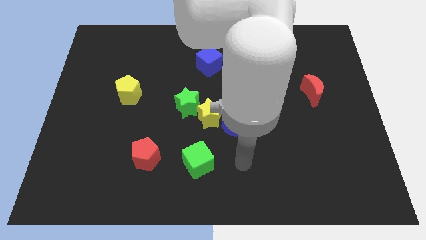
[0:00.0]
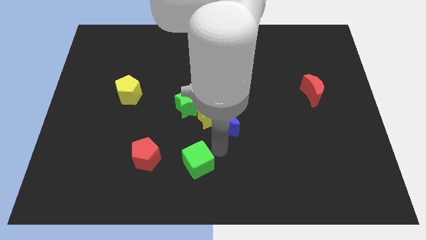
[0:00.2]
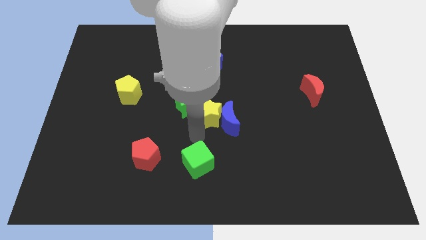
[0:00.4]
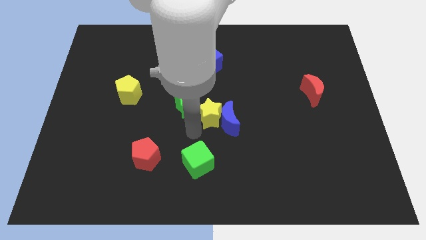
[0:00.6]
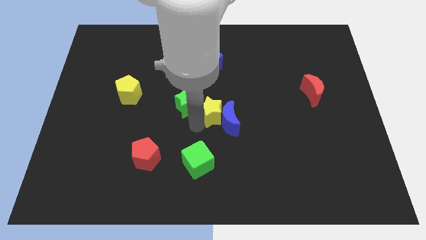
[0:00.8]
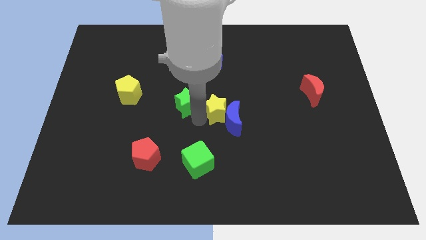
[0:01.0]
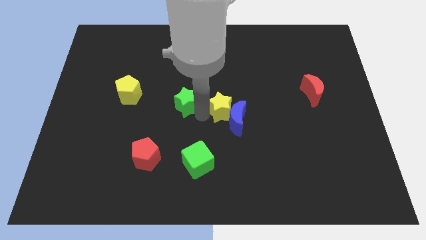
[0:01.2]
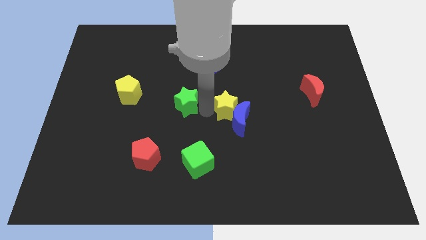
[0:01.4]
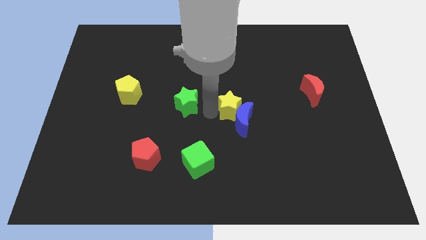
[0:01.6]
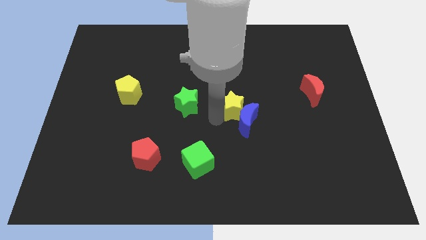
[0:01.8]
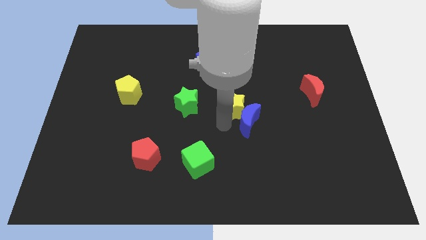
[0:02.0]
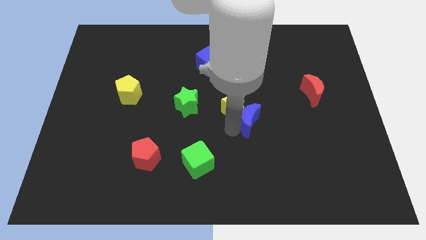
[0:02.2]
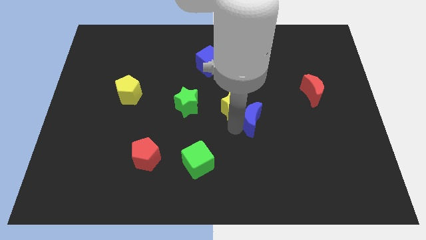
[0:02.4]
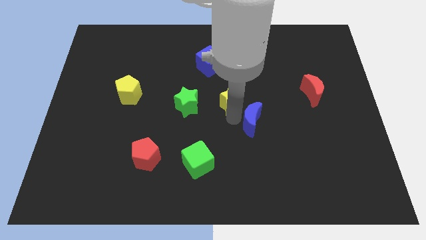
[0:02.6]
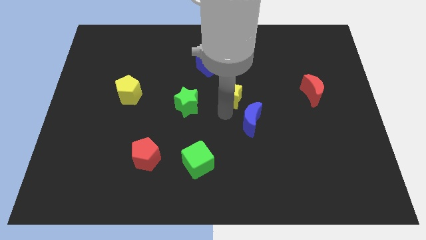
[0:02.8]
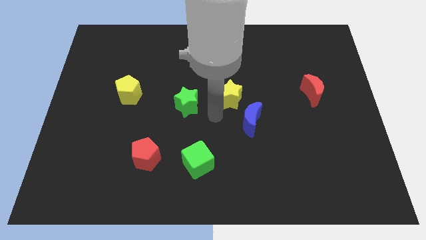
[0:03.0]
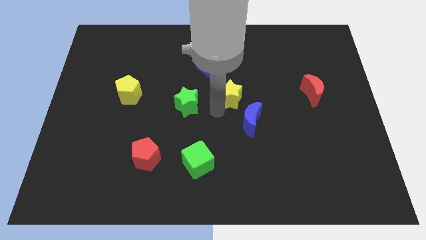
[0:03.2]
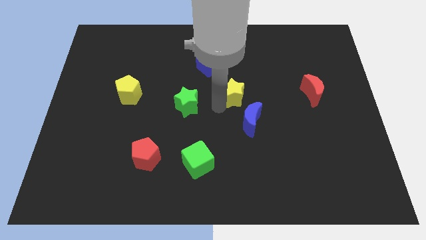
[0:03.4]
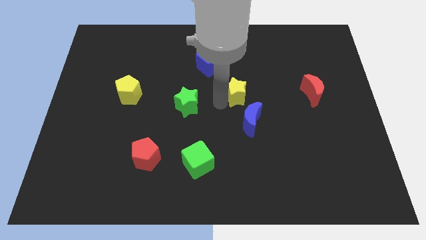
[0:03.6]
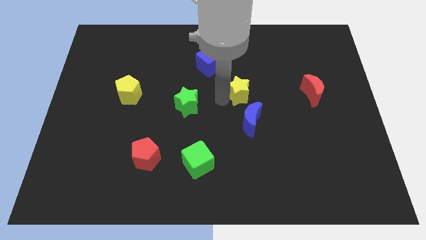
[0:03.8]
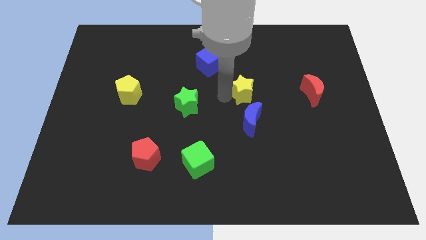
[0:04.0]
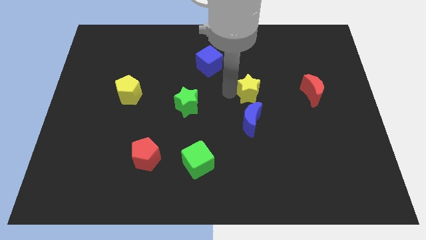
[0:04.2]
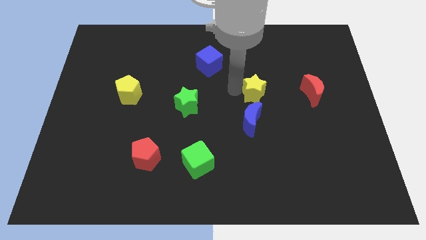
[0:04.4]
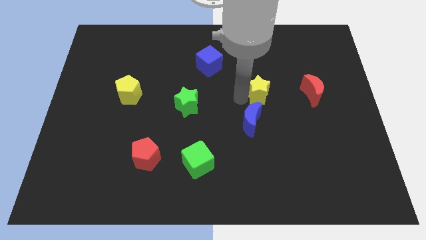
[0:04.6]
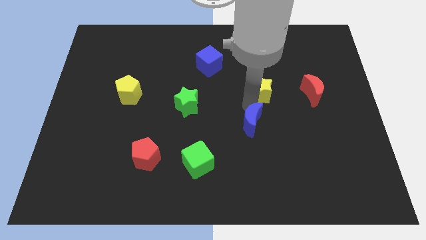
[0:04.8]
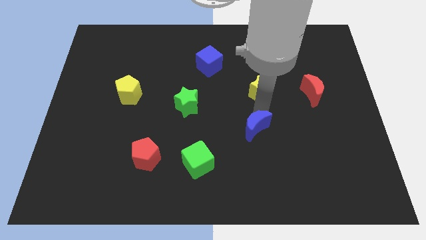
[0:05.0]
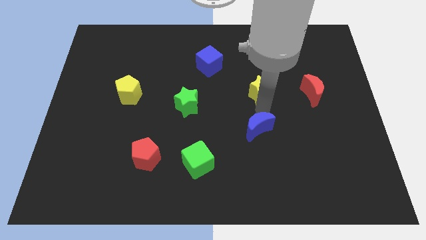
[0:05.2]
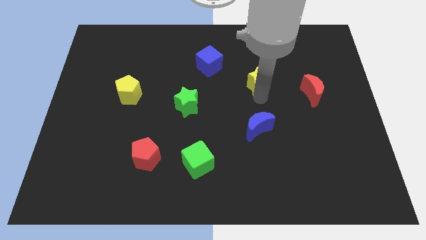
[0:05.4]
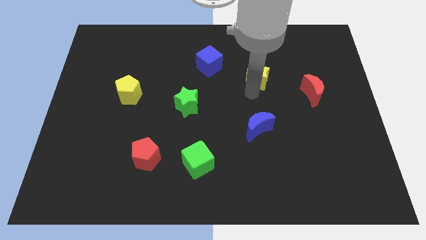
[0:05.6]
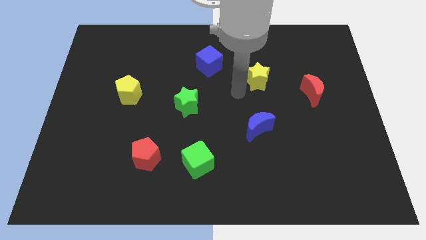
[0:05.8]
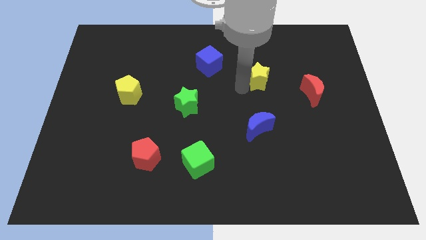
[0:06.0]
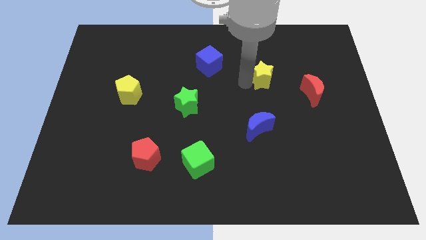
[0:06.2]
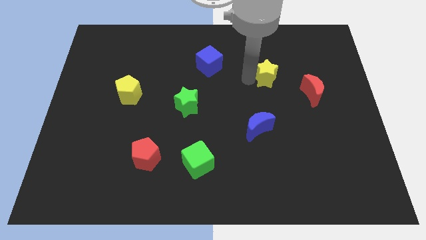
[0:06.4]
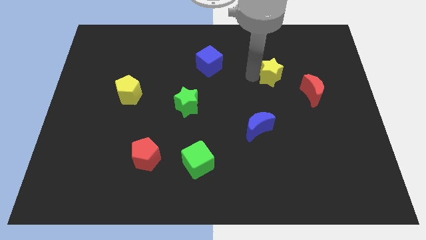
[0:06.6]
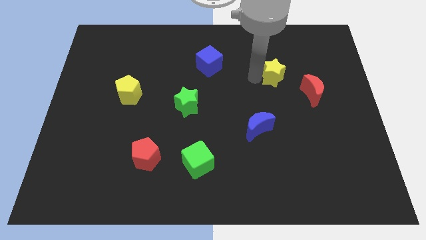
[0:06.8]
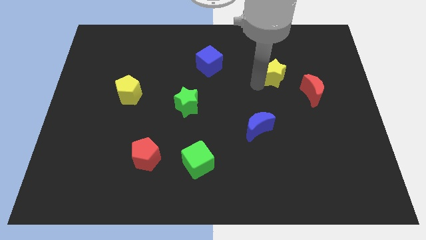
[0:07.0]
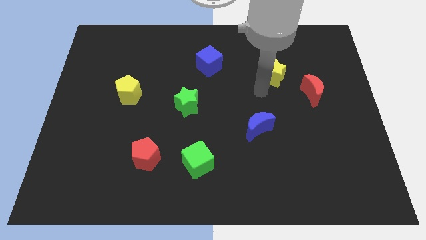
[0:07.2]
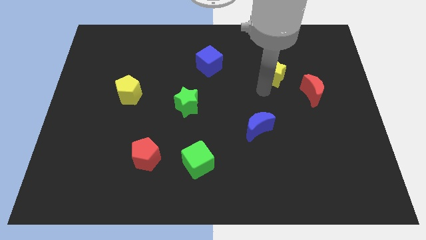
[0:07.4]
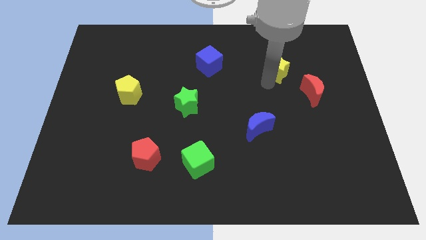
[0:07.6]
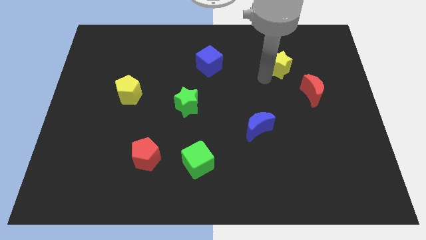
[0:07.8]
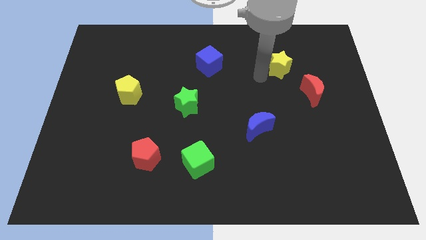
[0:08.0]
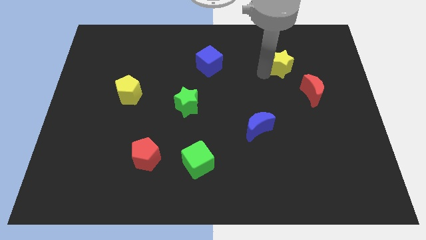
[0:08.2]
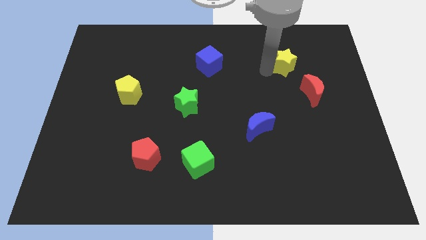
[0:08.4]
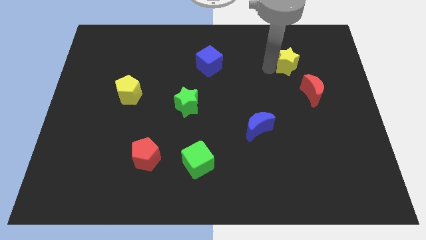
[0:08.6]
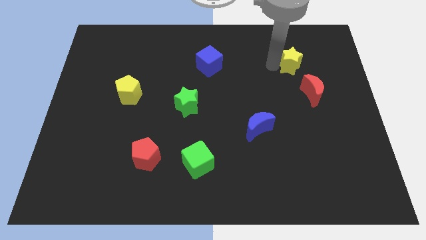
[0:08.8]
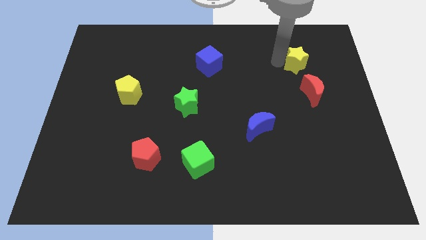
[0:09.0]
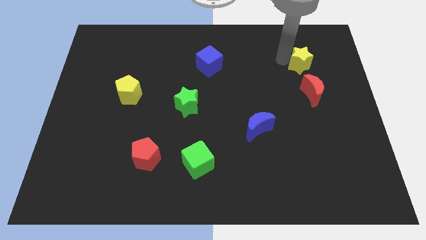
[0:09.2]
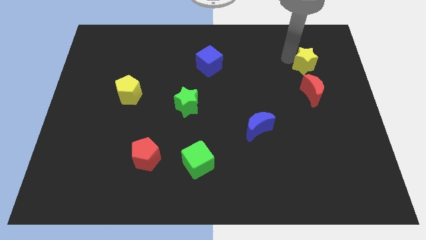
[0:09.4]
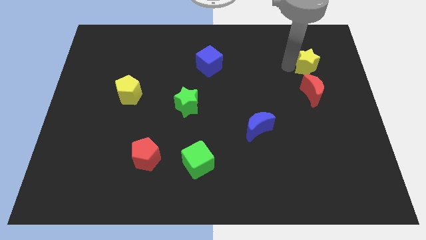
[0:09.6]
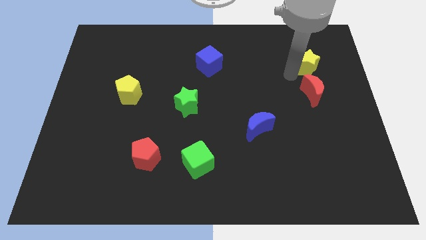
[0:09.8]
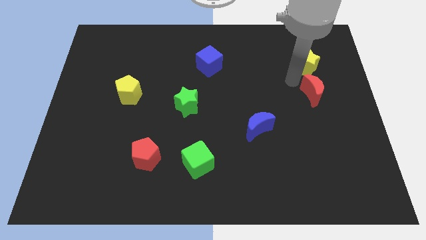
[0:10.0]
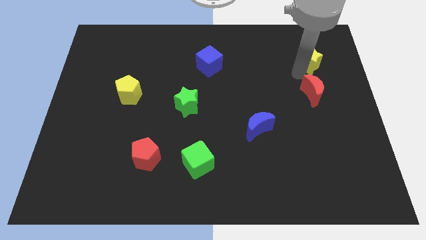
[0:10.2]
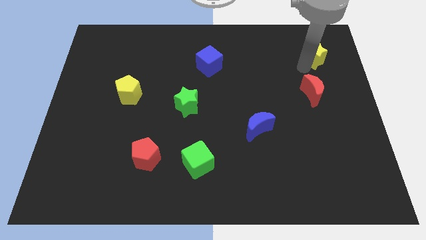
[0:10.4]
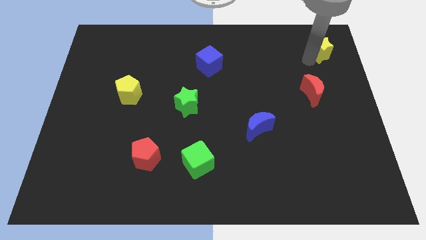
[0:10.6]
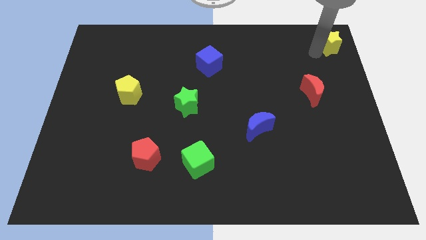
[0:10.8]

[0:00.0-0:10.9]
move the yellow star to the top right corner

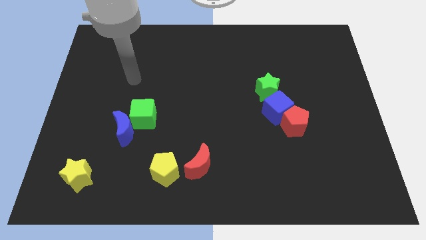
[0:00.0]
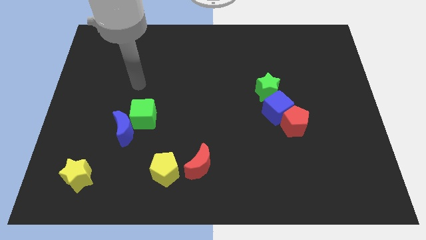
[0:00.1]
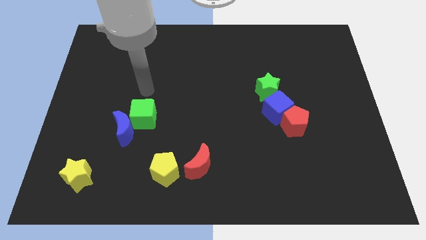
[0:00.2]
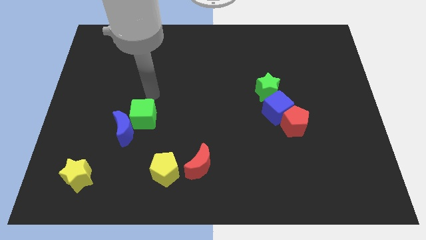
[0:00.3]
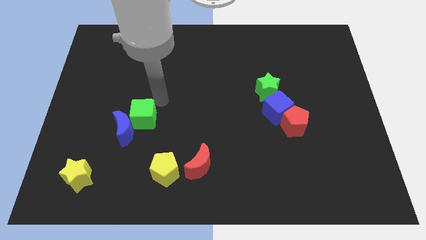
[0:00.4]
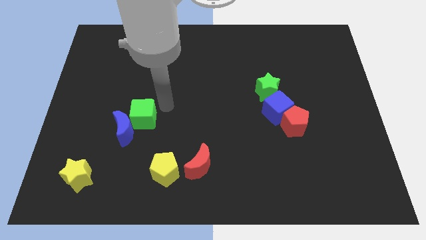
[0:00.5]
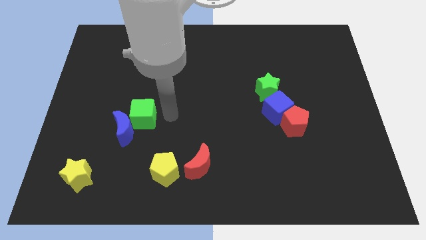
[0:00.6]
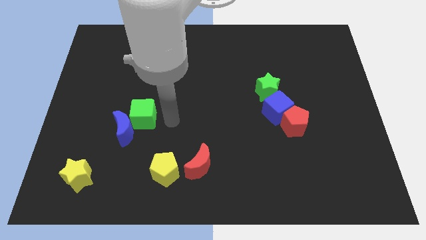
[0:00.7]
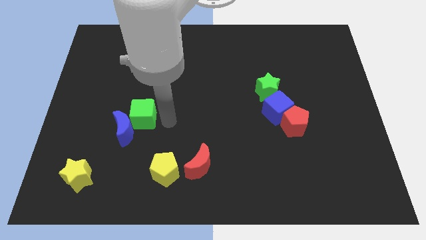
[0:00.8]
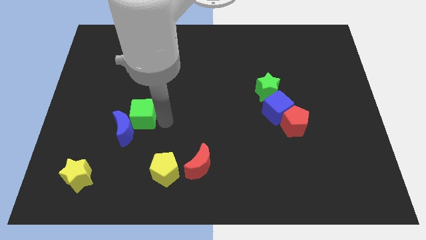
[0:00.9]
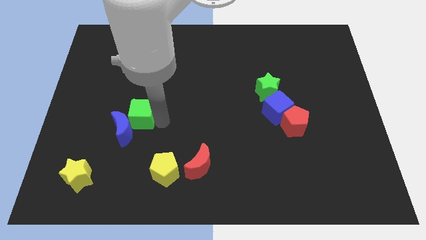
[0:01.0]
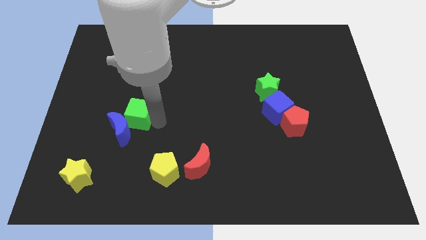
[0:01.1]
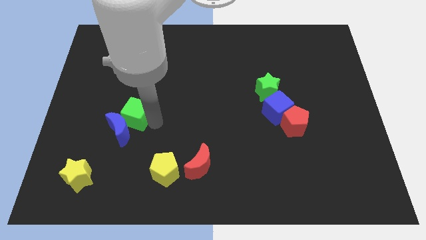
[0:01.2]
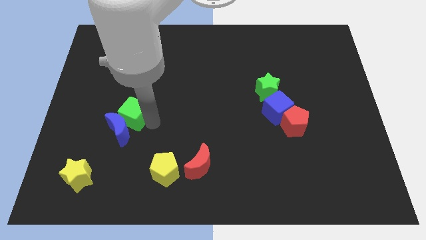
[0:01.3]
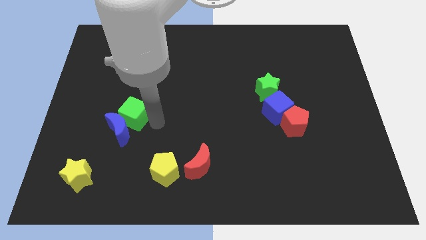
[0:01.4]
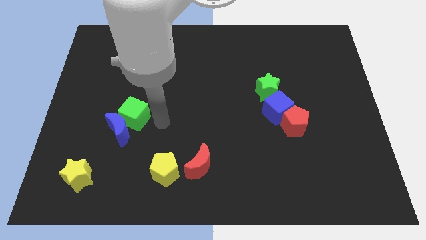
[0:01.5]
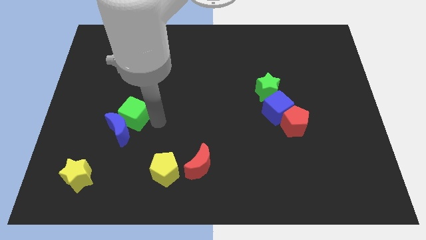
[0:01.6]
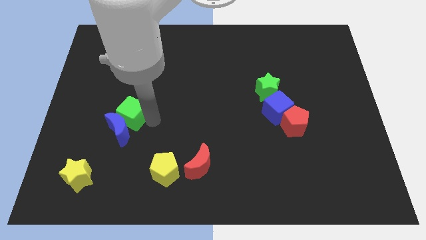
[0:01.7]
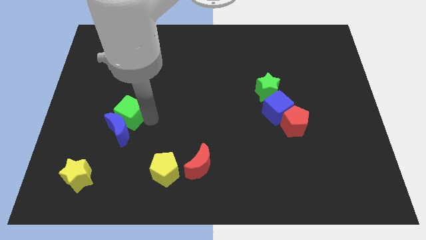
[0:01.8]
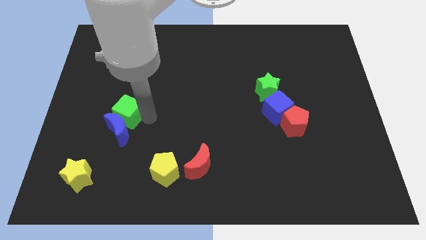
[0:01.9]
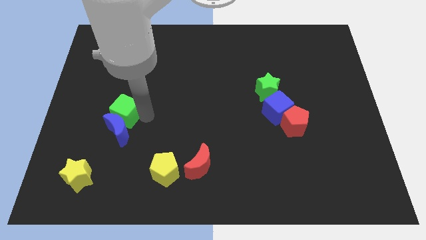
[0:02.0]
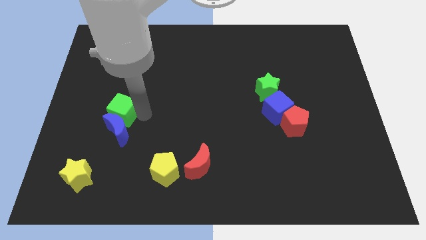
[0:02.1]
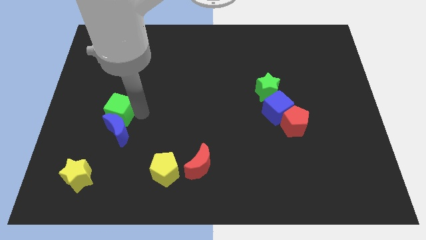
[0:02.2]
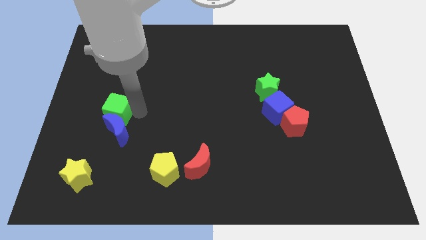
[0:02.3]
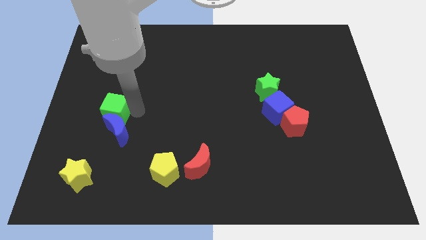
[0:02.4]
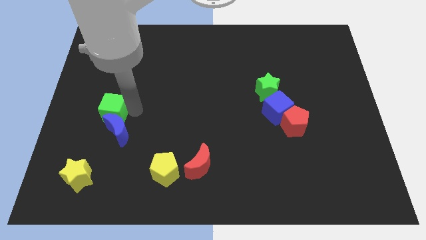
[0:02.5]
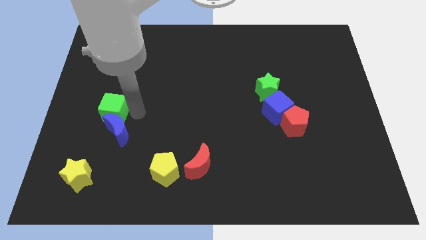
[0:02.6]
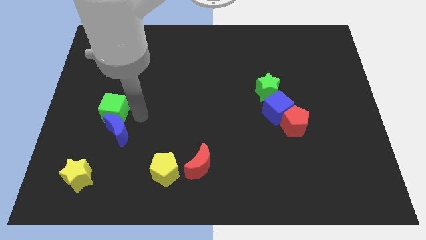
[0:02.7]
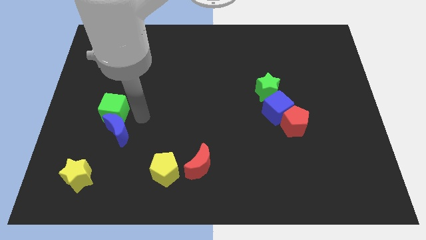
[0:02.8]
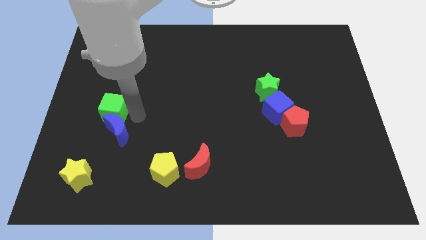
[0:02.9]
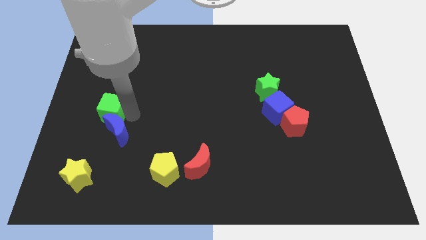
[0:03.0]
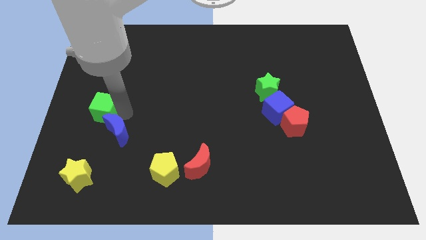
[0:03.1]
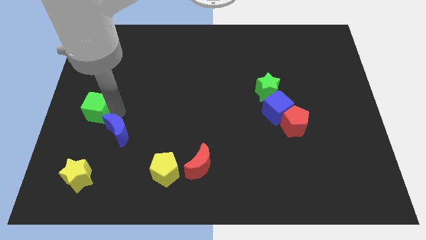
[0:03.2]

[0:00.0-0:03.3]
push the green cube to the left side
